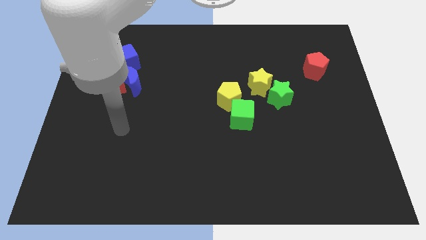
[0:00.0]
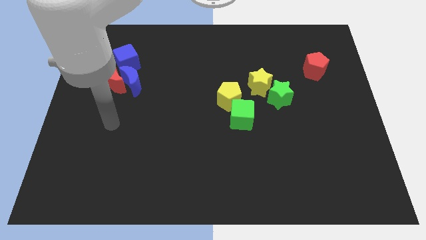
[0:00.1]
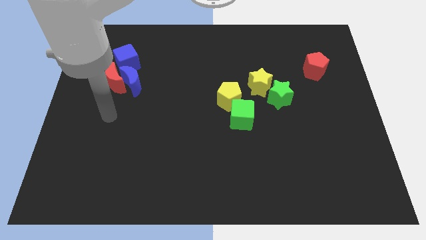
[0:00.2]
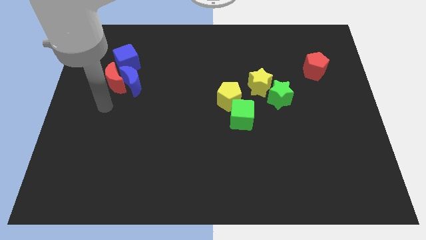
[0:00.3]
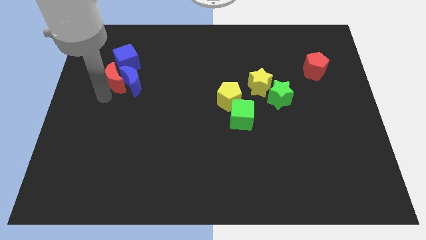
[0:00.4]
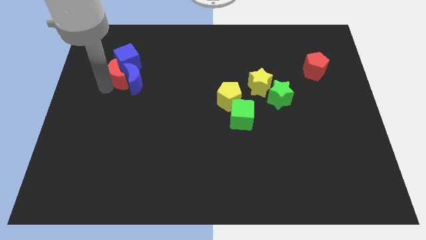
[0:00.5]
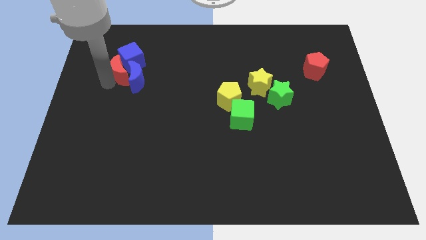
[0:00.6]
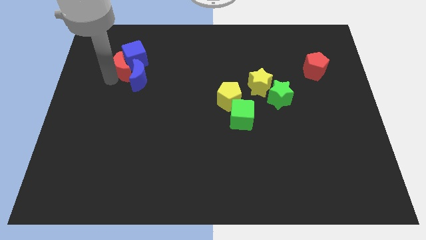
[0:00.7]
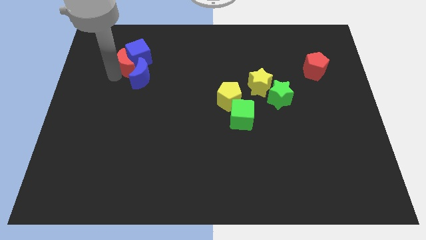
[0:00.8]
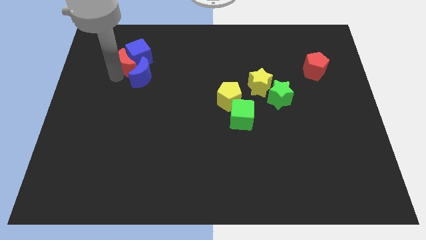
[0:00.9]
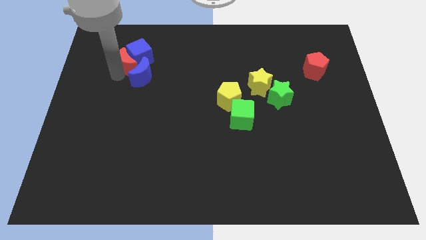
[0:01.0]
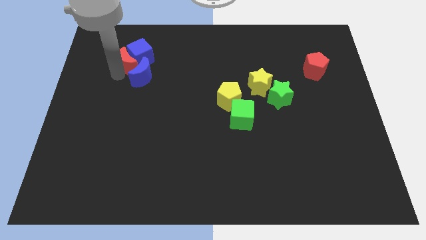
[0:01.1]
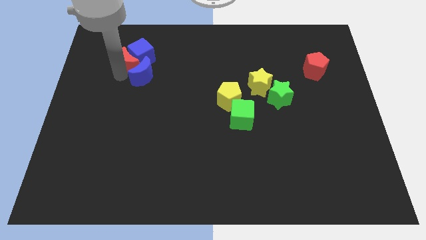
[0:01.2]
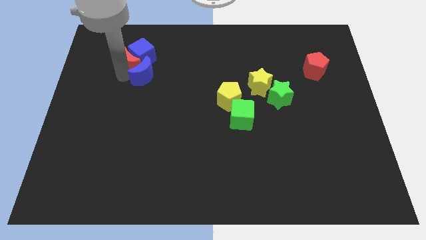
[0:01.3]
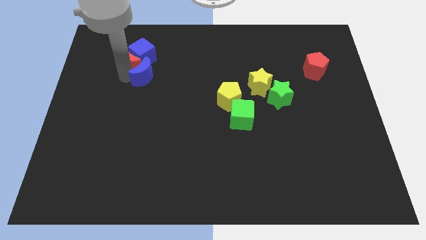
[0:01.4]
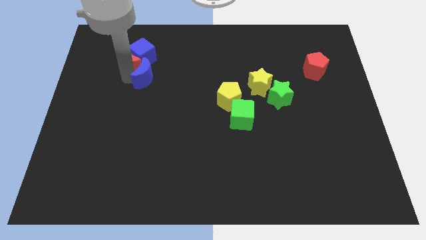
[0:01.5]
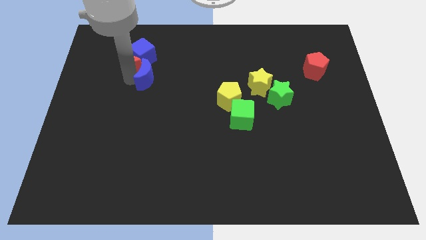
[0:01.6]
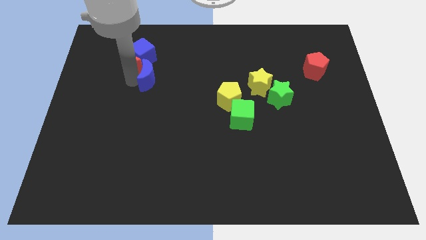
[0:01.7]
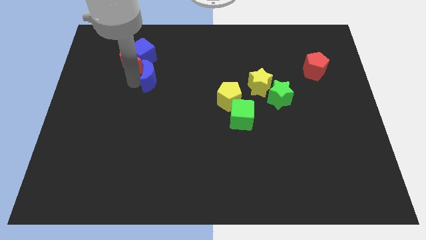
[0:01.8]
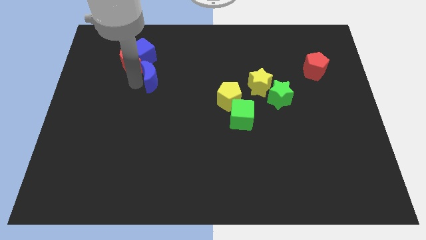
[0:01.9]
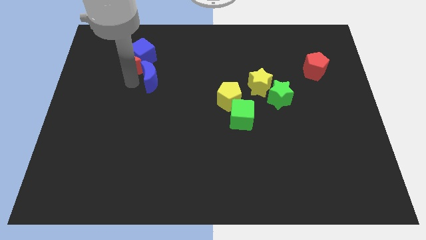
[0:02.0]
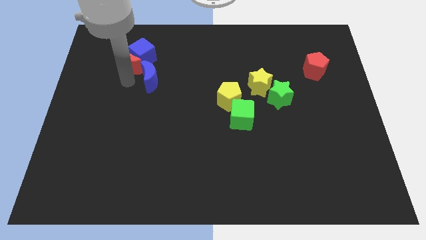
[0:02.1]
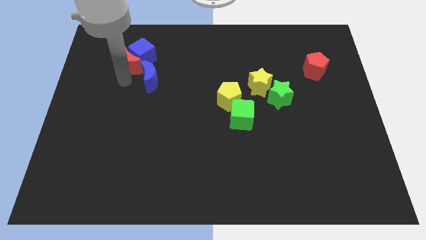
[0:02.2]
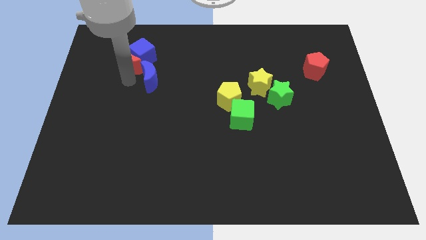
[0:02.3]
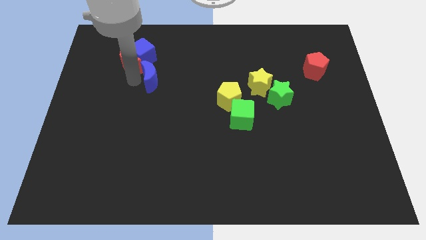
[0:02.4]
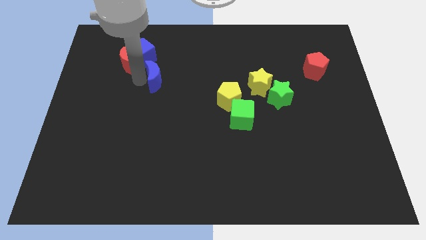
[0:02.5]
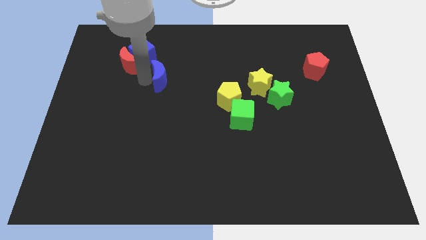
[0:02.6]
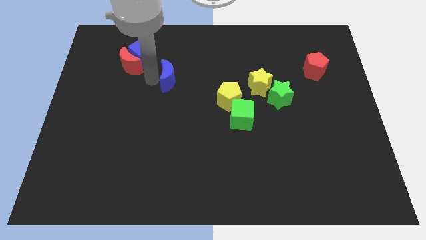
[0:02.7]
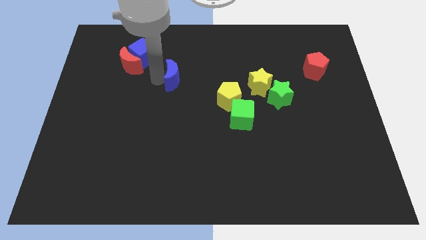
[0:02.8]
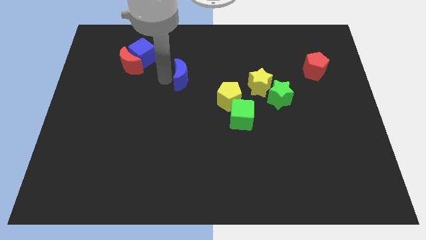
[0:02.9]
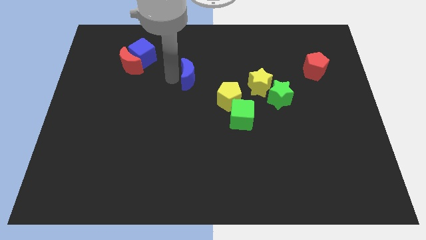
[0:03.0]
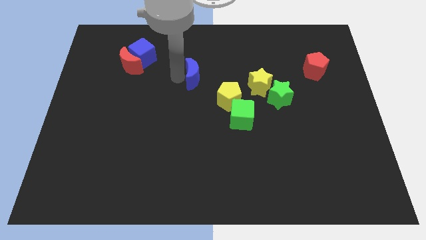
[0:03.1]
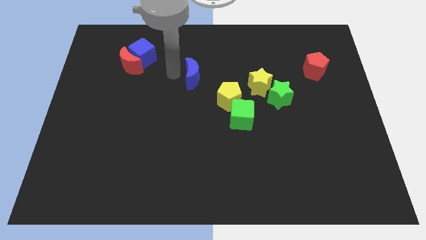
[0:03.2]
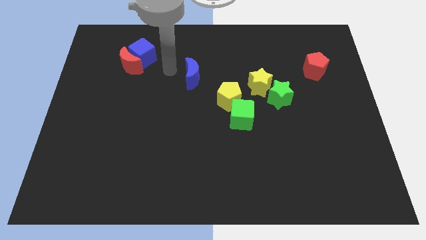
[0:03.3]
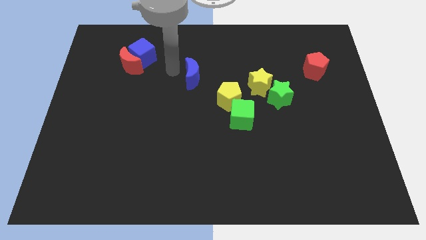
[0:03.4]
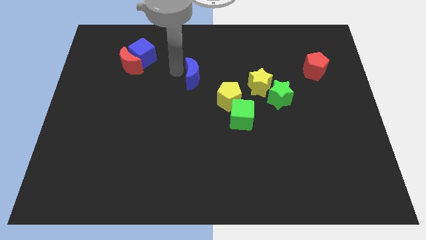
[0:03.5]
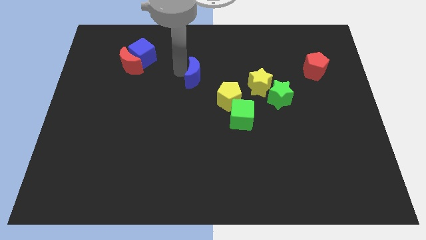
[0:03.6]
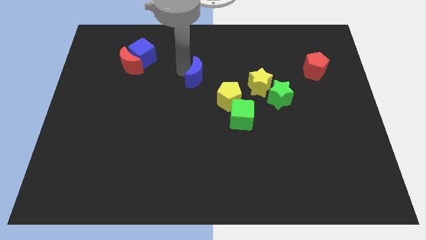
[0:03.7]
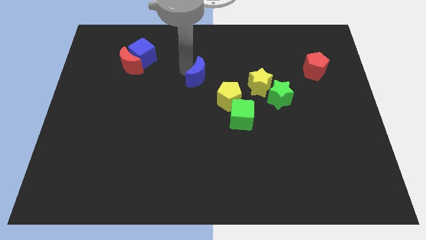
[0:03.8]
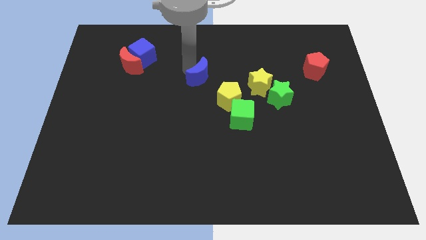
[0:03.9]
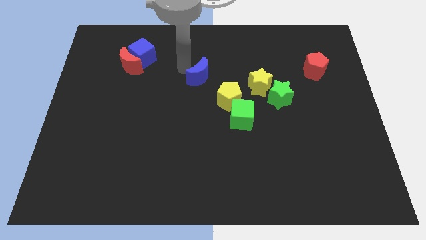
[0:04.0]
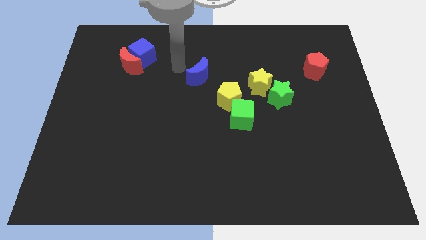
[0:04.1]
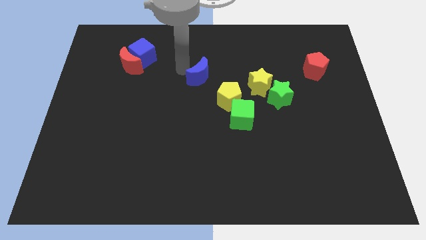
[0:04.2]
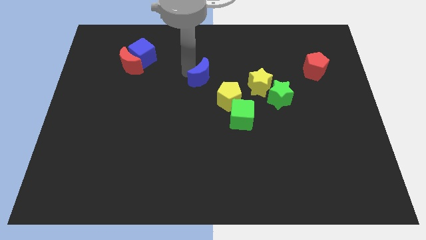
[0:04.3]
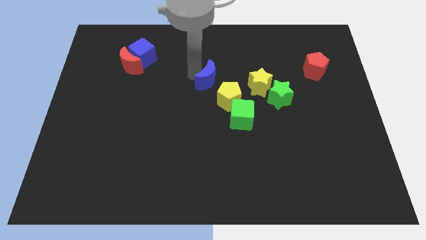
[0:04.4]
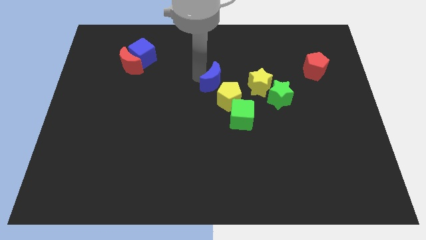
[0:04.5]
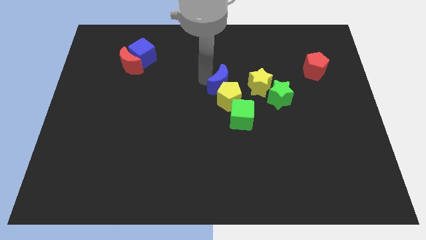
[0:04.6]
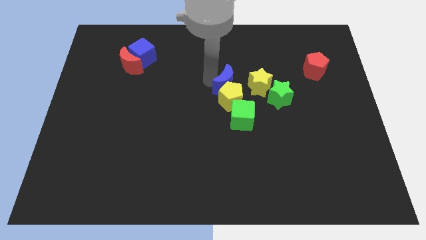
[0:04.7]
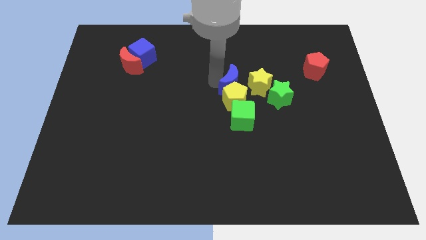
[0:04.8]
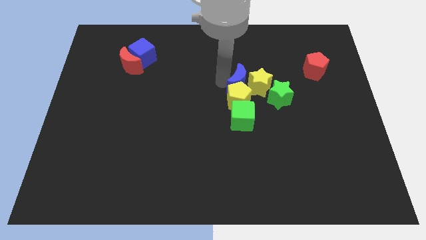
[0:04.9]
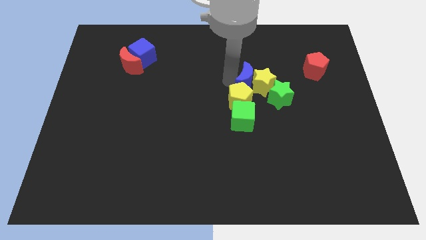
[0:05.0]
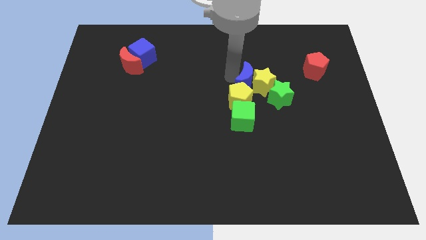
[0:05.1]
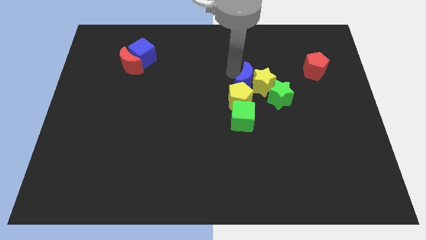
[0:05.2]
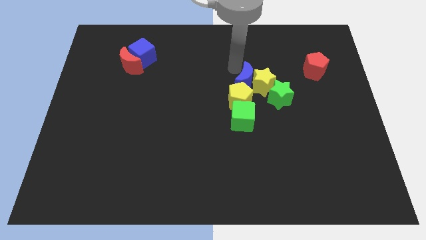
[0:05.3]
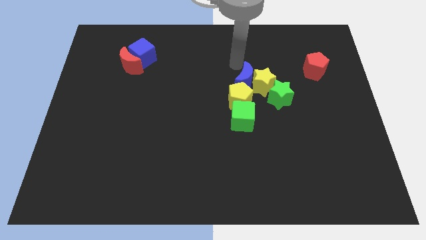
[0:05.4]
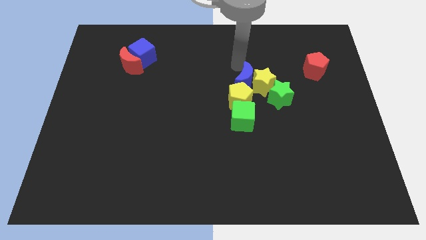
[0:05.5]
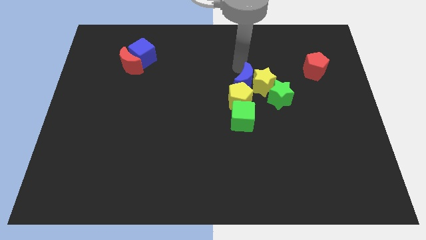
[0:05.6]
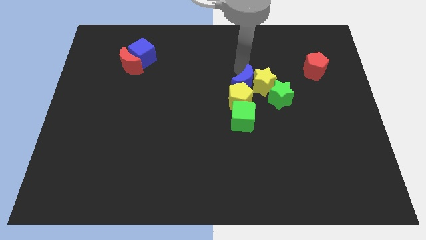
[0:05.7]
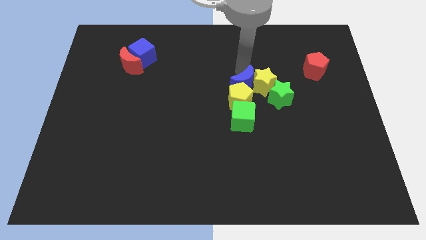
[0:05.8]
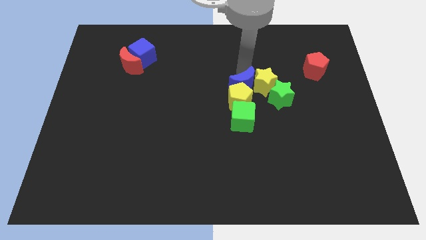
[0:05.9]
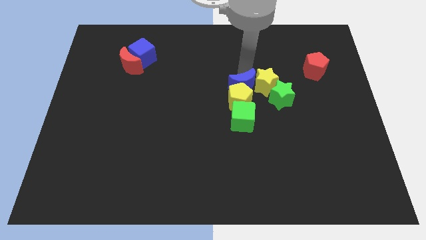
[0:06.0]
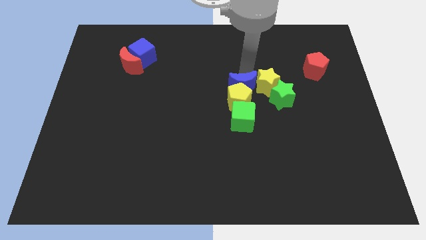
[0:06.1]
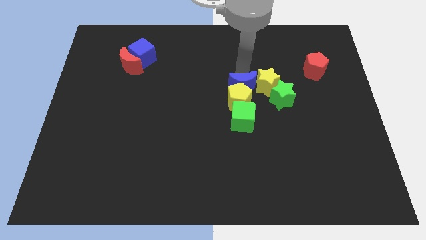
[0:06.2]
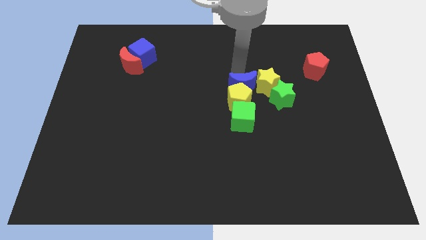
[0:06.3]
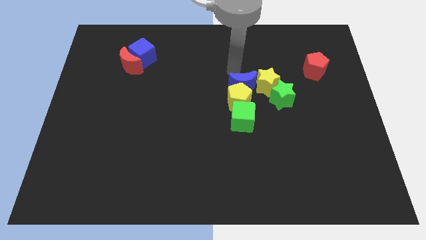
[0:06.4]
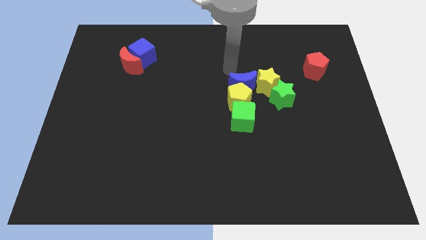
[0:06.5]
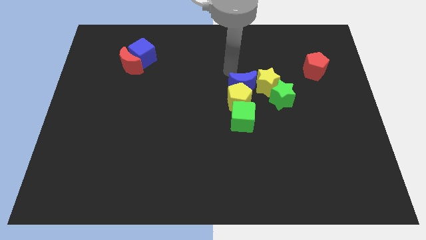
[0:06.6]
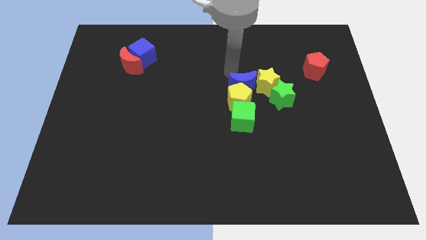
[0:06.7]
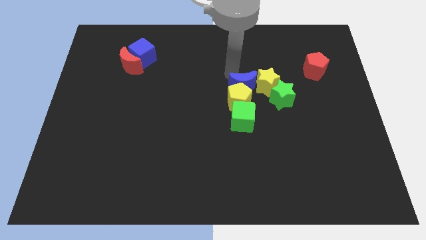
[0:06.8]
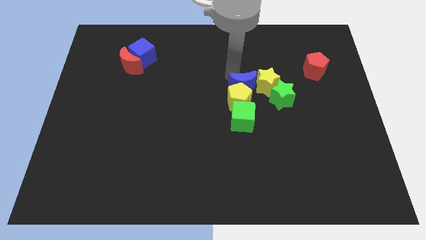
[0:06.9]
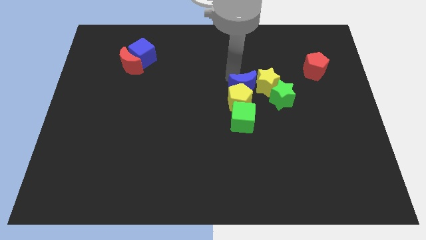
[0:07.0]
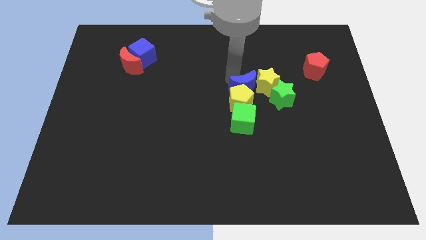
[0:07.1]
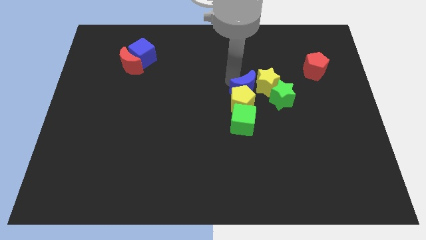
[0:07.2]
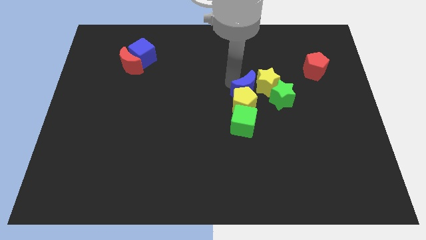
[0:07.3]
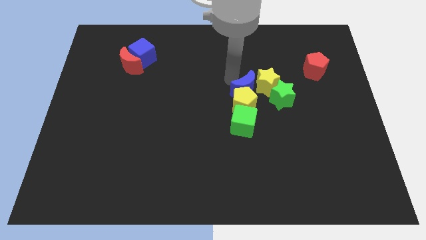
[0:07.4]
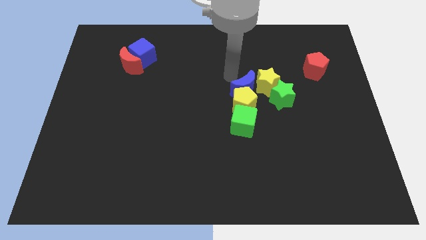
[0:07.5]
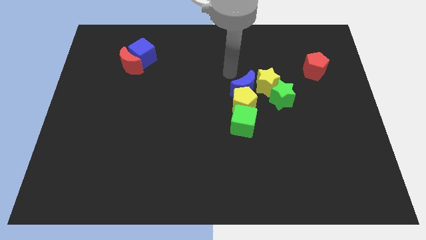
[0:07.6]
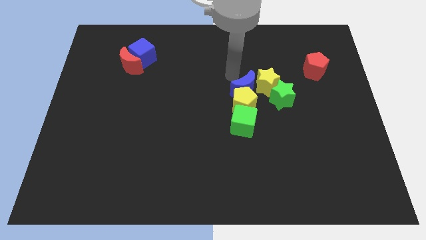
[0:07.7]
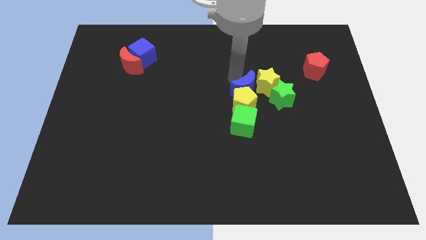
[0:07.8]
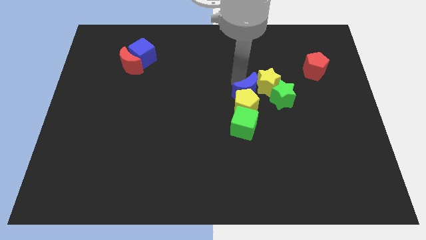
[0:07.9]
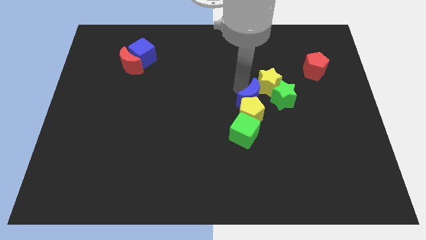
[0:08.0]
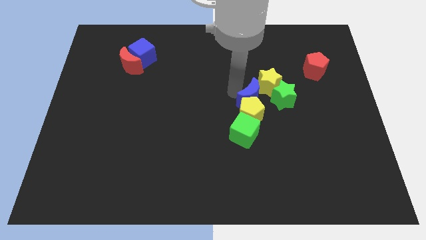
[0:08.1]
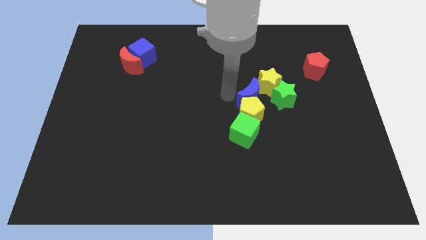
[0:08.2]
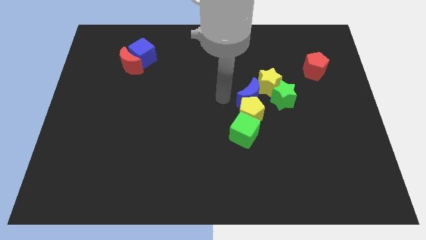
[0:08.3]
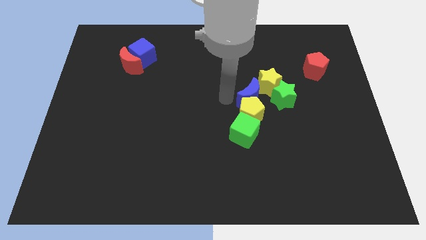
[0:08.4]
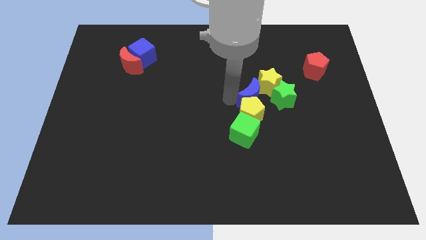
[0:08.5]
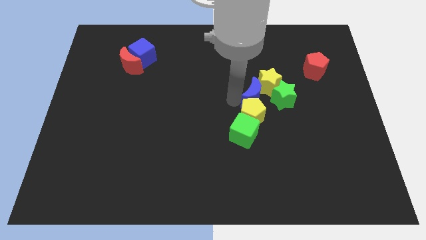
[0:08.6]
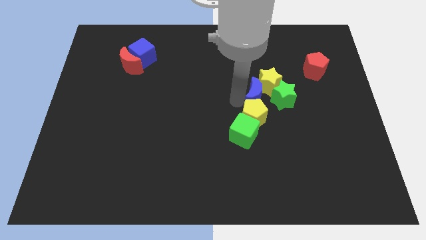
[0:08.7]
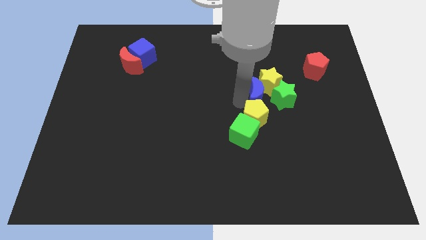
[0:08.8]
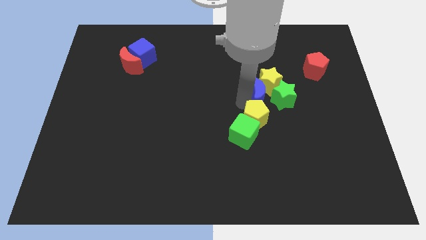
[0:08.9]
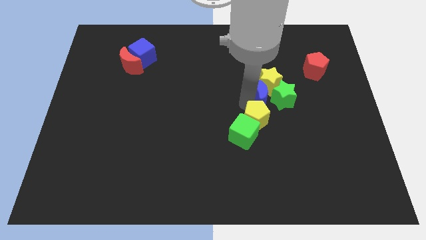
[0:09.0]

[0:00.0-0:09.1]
push the blue moon towards the green star
